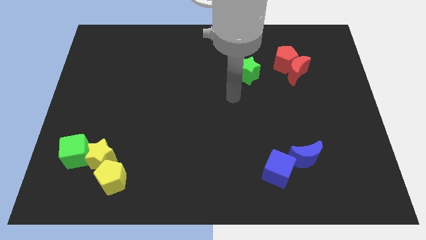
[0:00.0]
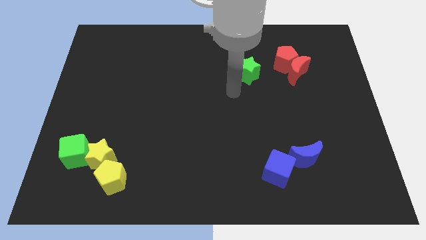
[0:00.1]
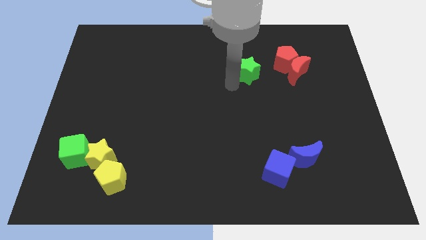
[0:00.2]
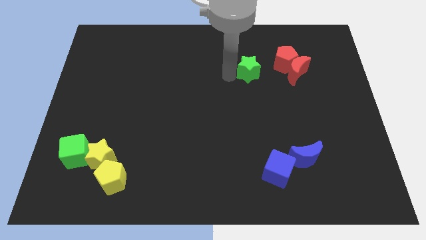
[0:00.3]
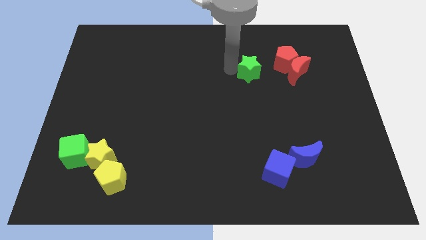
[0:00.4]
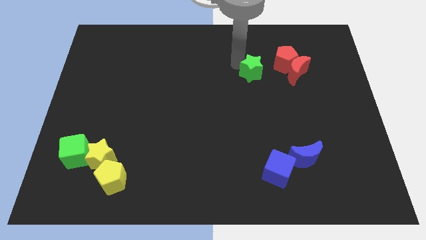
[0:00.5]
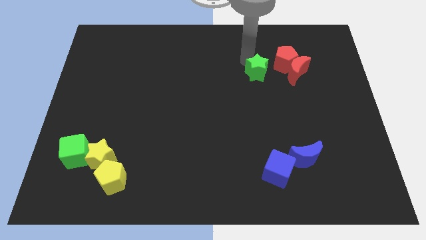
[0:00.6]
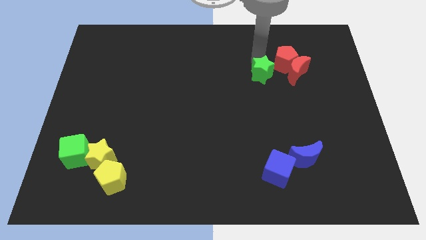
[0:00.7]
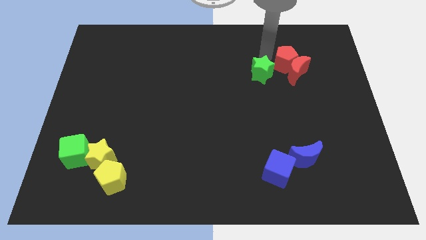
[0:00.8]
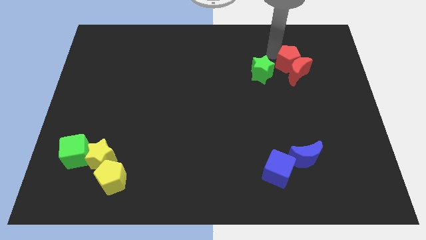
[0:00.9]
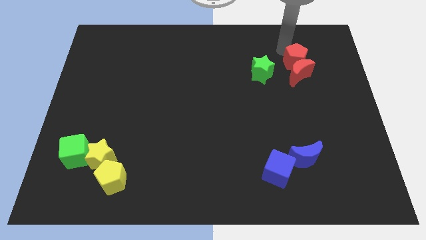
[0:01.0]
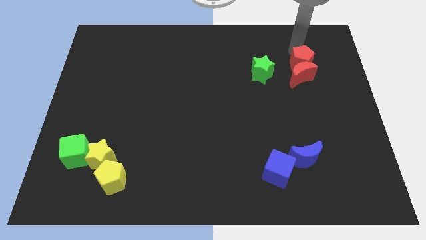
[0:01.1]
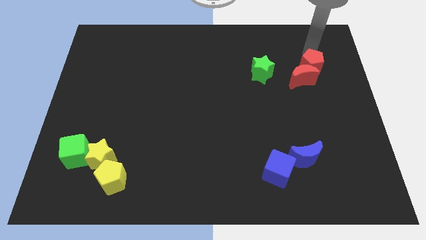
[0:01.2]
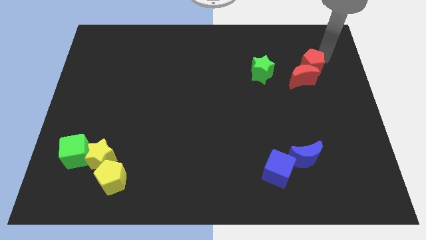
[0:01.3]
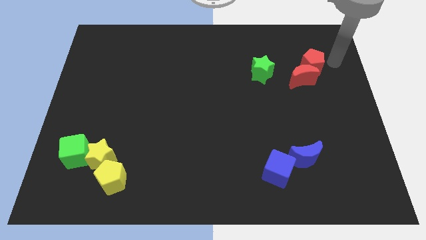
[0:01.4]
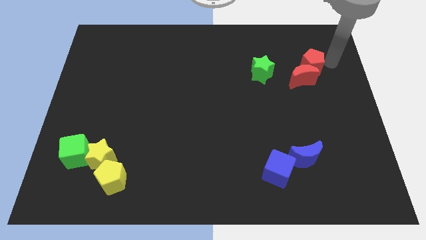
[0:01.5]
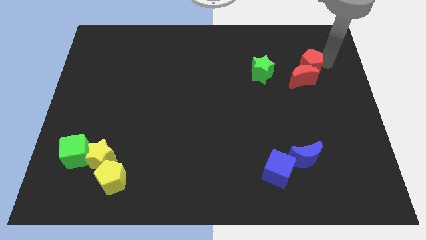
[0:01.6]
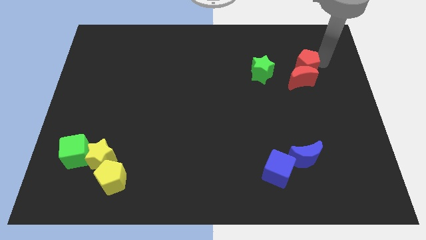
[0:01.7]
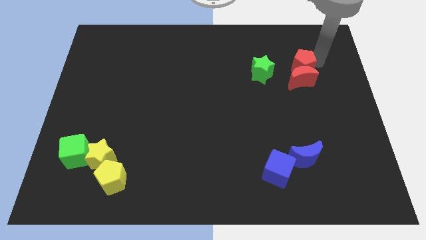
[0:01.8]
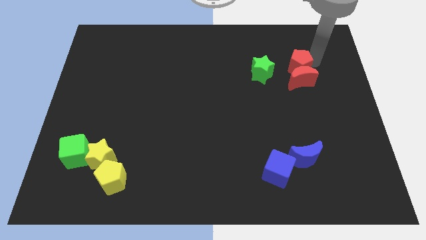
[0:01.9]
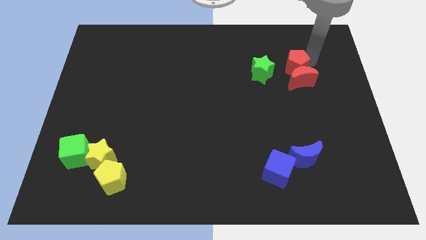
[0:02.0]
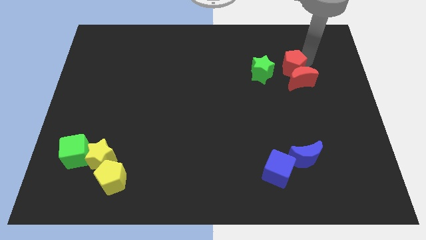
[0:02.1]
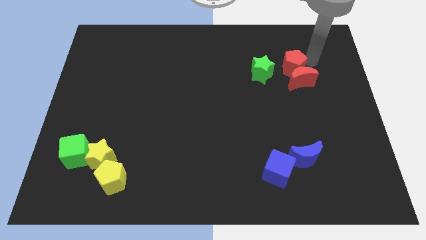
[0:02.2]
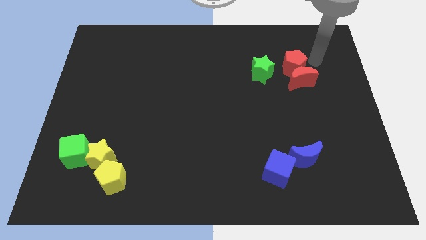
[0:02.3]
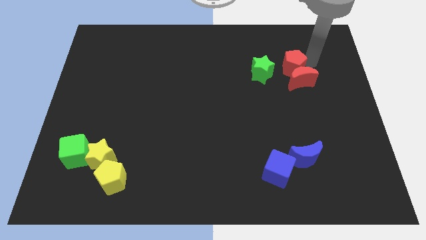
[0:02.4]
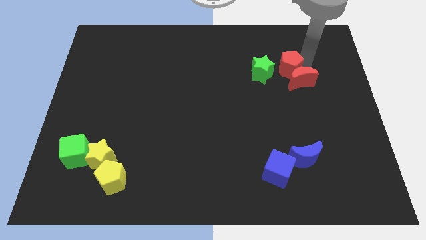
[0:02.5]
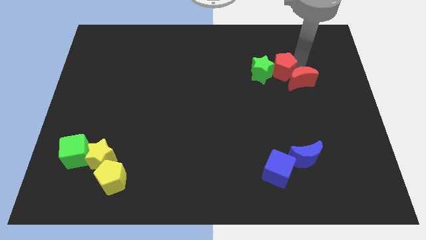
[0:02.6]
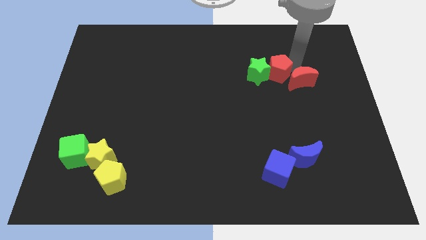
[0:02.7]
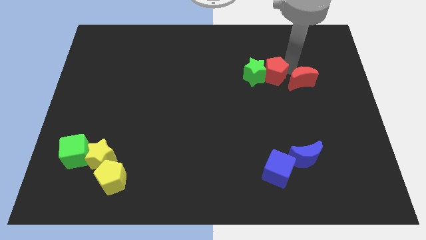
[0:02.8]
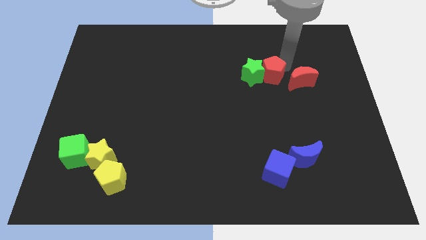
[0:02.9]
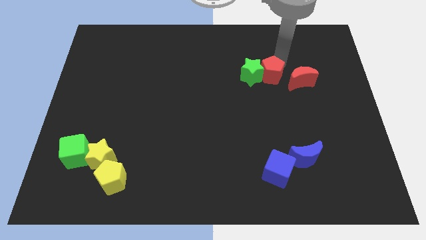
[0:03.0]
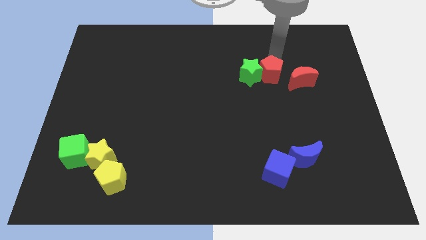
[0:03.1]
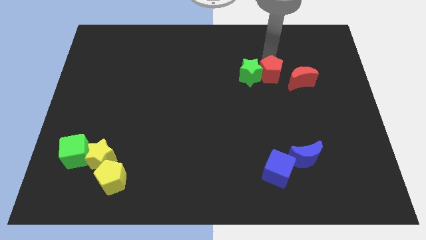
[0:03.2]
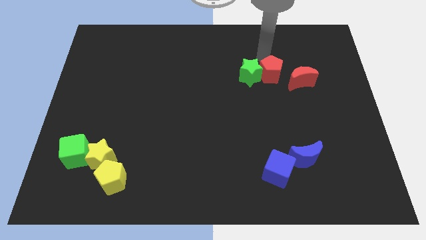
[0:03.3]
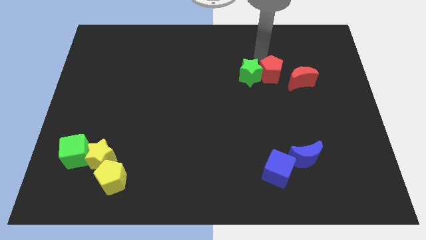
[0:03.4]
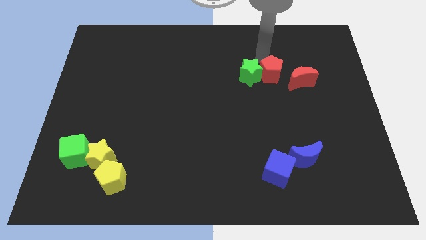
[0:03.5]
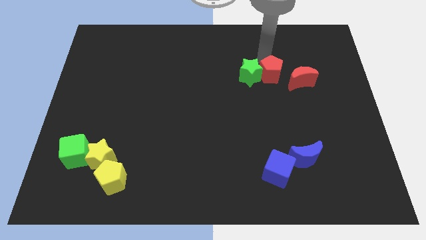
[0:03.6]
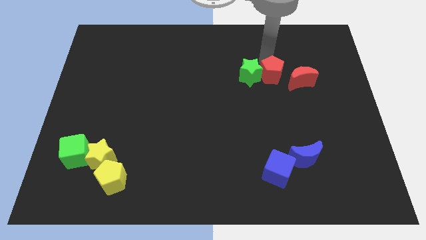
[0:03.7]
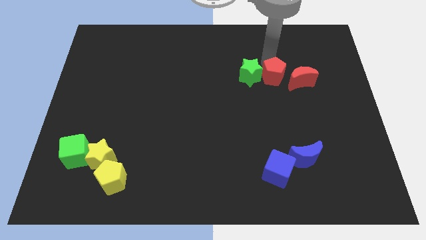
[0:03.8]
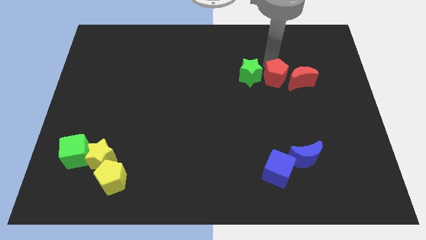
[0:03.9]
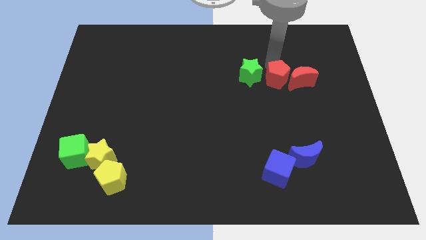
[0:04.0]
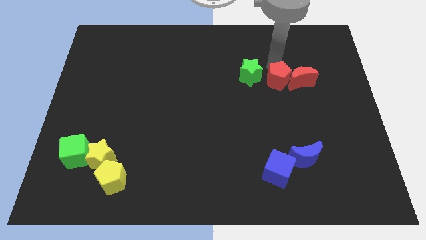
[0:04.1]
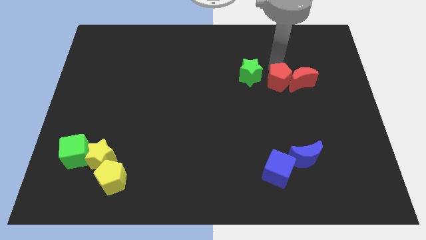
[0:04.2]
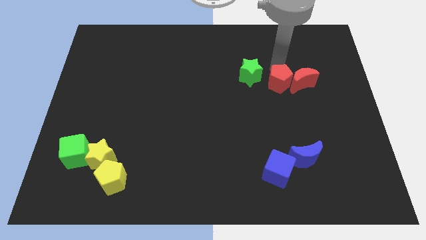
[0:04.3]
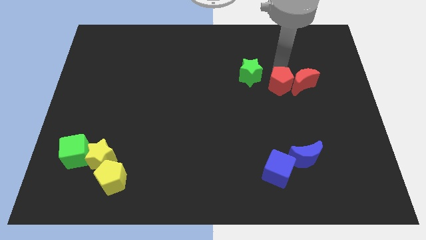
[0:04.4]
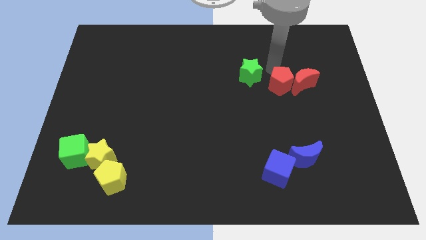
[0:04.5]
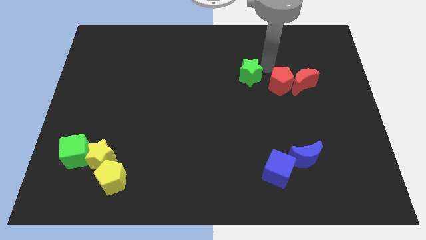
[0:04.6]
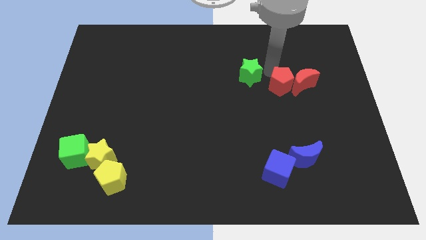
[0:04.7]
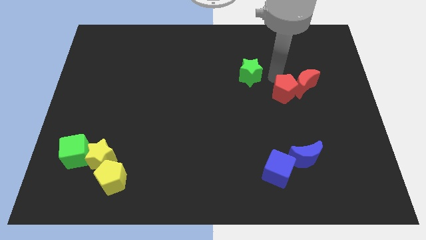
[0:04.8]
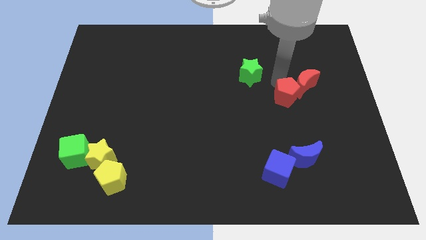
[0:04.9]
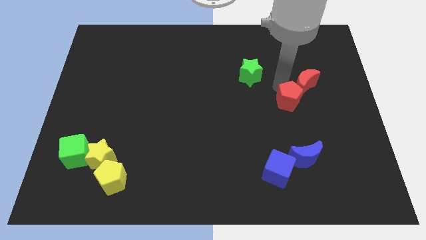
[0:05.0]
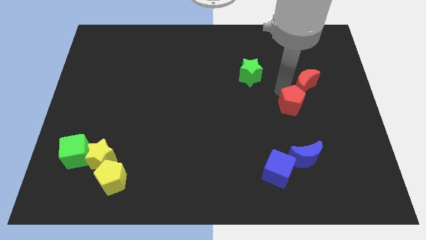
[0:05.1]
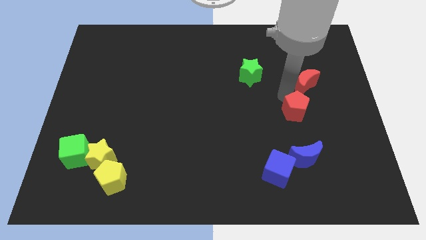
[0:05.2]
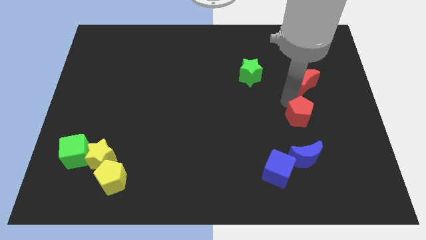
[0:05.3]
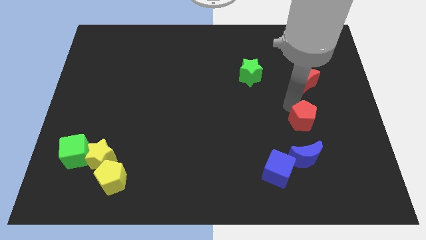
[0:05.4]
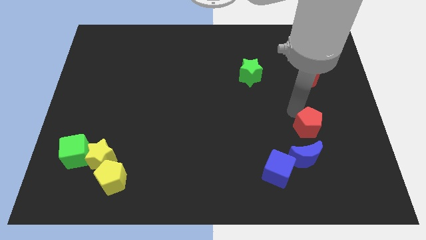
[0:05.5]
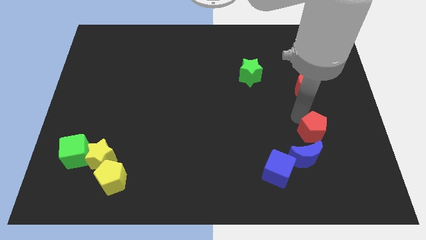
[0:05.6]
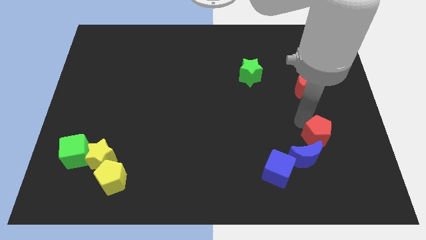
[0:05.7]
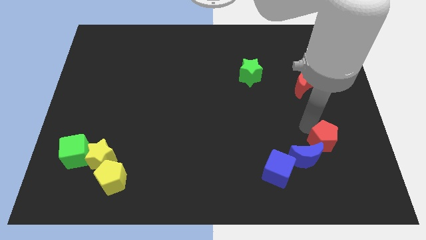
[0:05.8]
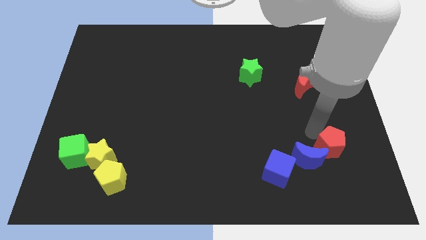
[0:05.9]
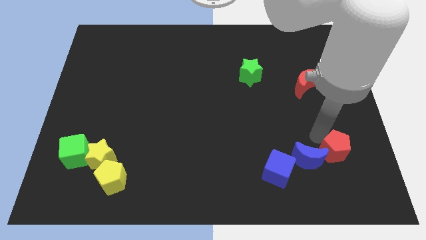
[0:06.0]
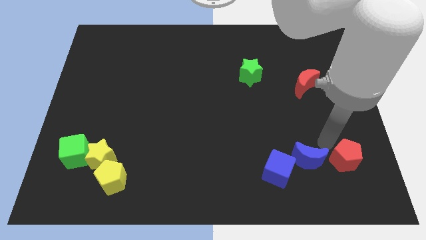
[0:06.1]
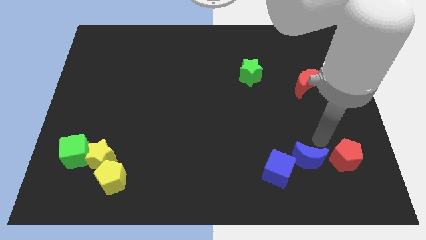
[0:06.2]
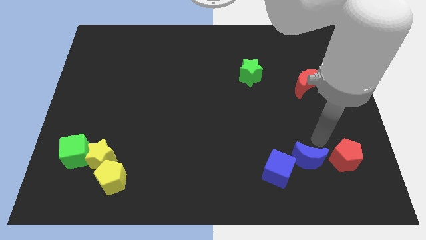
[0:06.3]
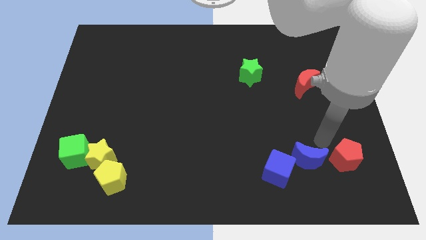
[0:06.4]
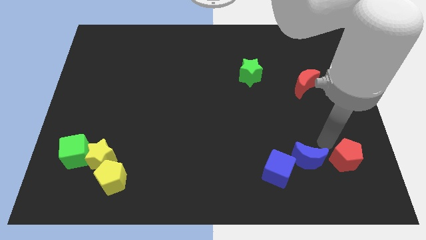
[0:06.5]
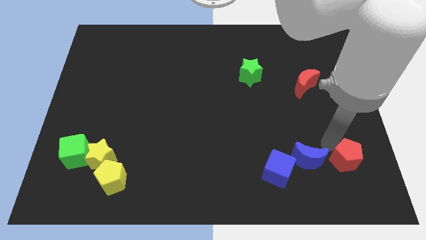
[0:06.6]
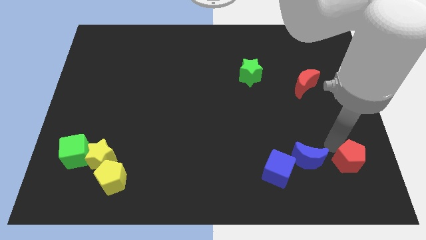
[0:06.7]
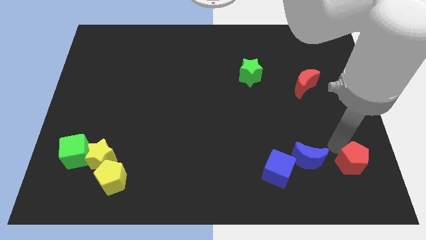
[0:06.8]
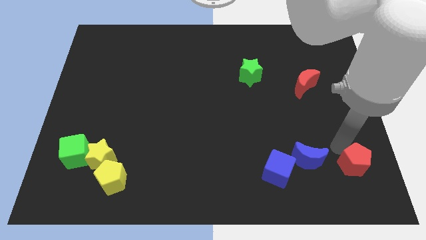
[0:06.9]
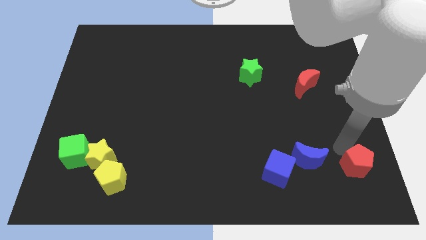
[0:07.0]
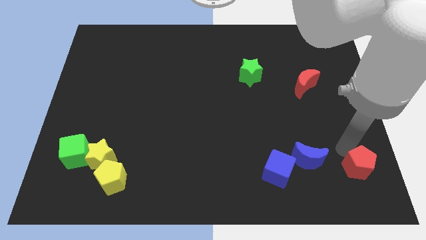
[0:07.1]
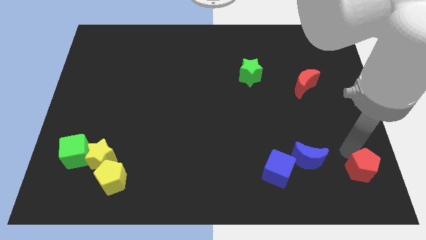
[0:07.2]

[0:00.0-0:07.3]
slide the red pentagon to the bottom right

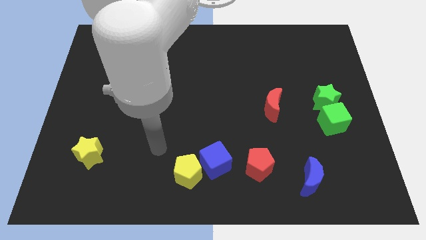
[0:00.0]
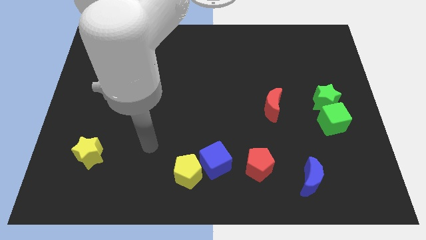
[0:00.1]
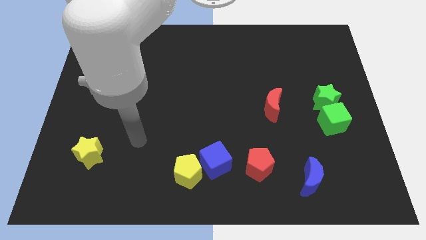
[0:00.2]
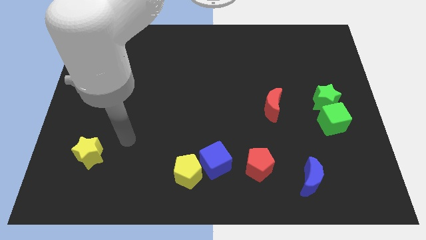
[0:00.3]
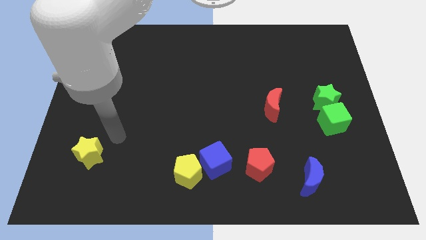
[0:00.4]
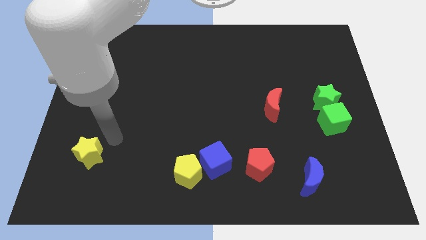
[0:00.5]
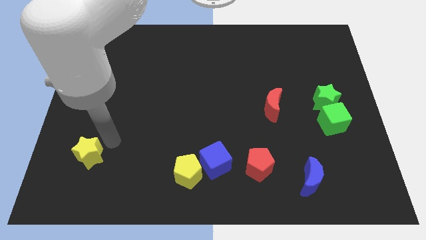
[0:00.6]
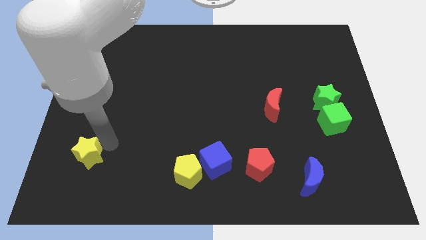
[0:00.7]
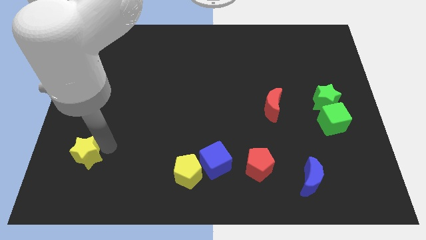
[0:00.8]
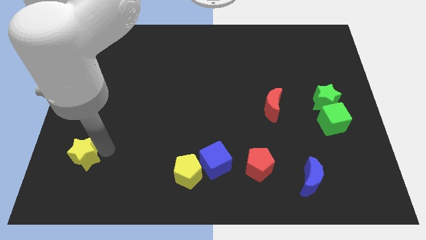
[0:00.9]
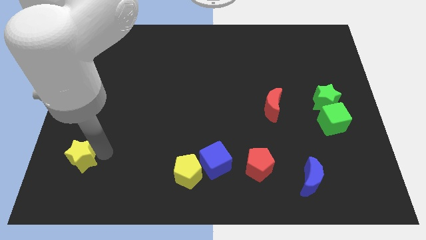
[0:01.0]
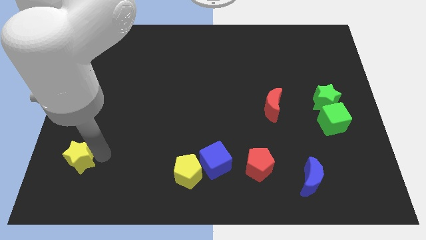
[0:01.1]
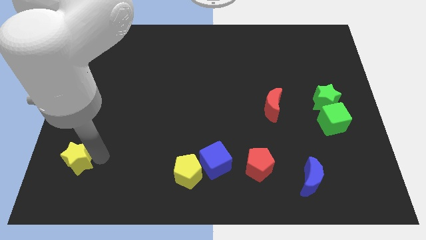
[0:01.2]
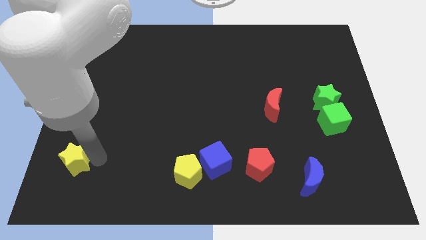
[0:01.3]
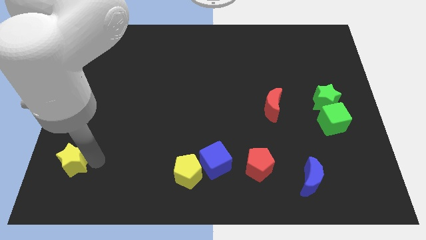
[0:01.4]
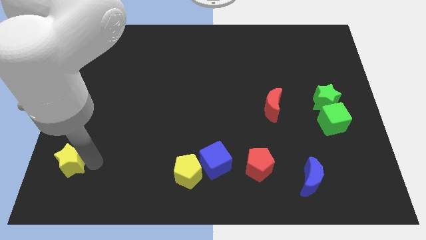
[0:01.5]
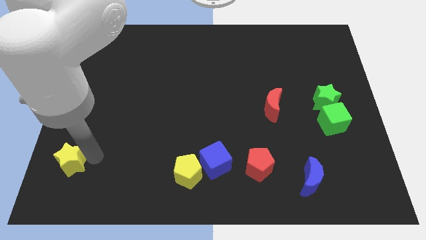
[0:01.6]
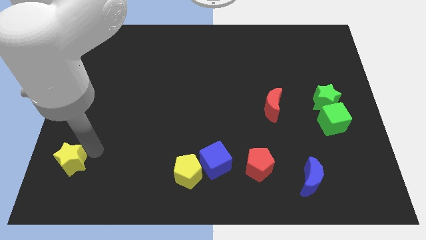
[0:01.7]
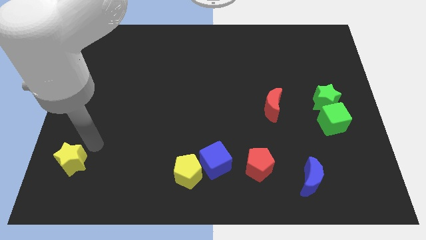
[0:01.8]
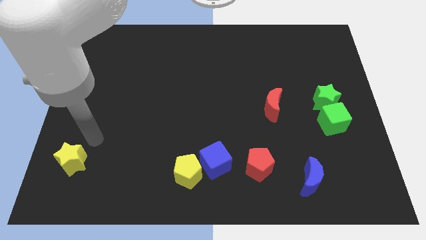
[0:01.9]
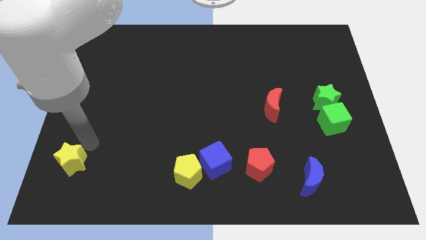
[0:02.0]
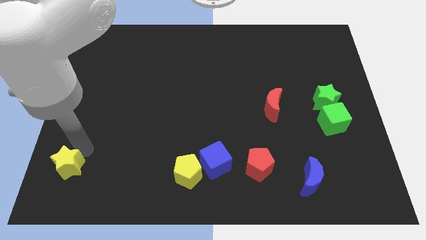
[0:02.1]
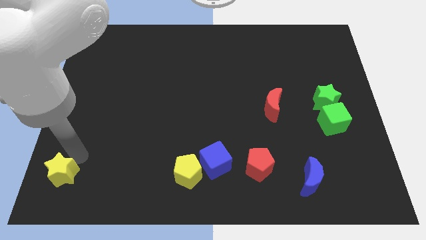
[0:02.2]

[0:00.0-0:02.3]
slide the yellow star to the bottom left corner
